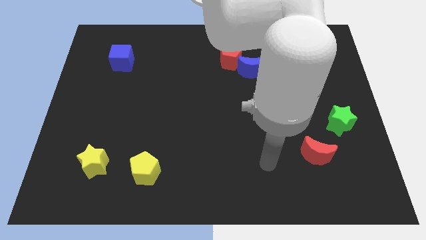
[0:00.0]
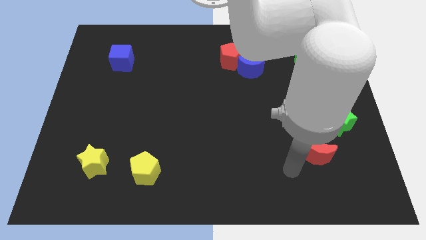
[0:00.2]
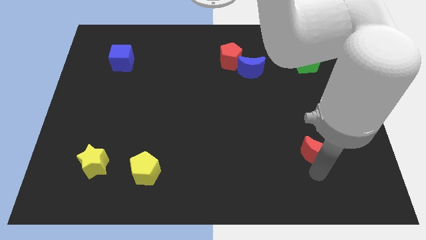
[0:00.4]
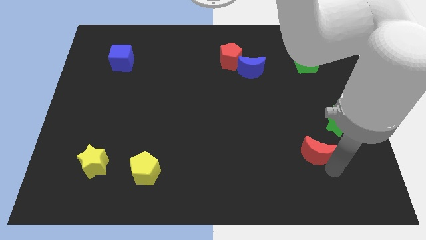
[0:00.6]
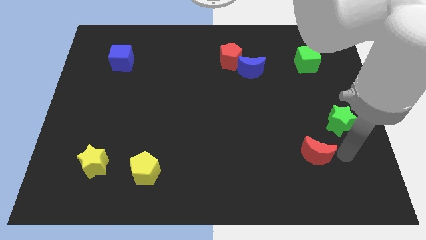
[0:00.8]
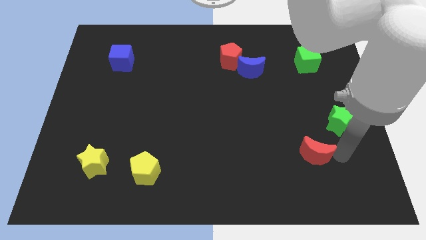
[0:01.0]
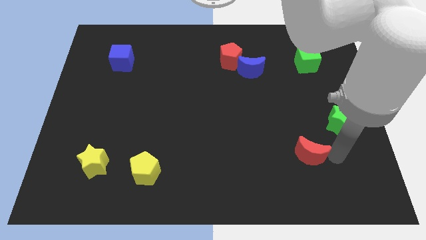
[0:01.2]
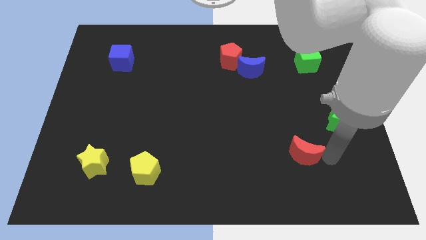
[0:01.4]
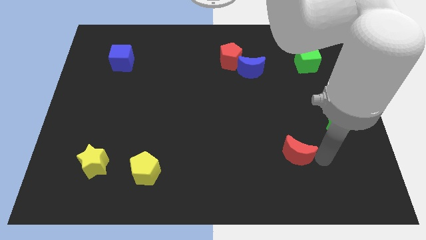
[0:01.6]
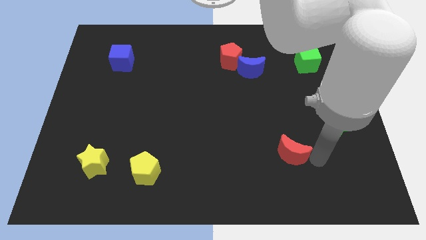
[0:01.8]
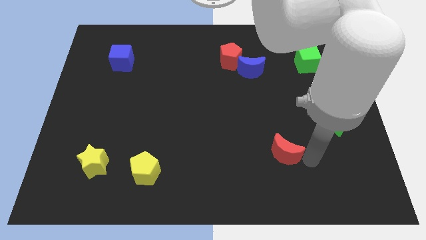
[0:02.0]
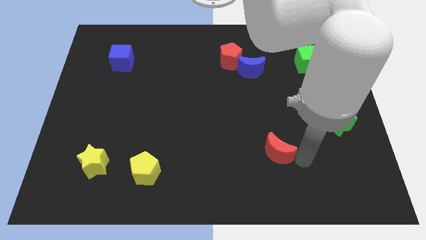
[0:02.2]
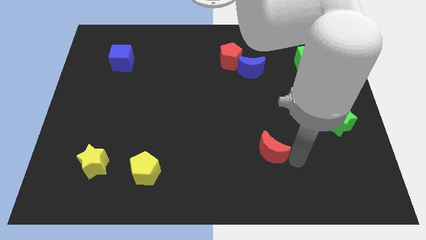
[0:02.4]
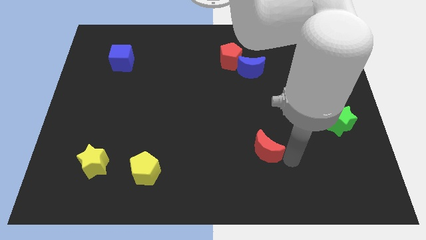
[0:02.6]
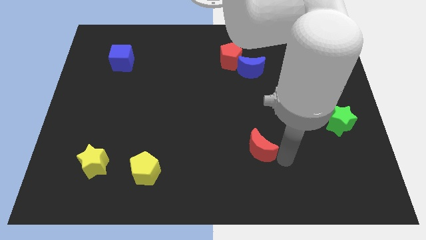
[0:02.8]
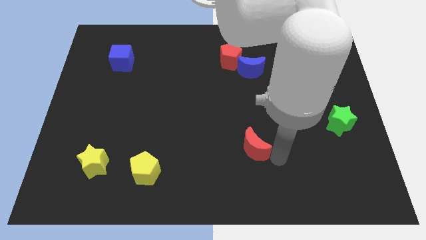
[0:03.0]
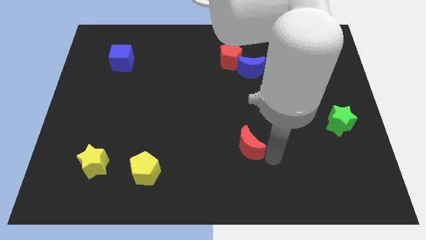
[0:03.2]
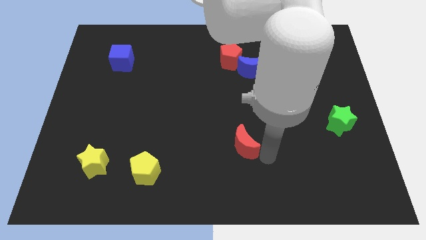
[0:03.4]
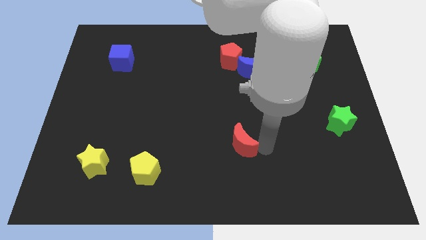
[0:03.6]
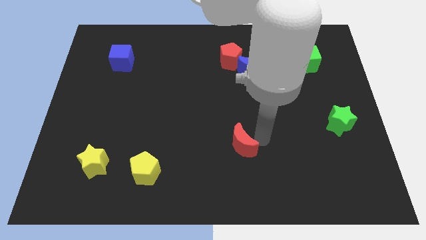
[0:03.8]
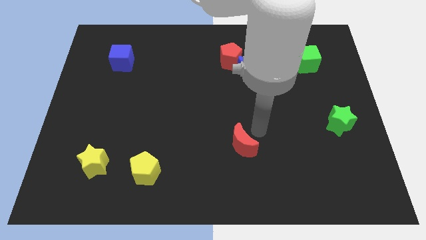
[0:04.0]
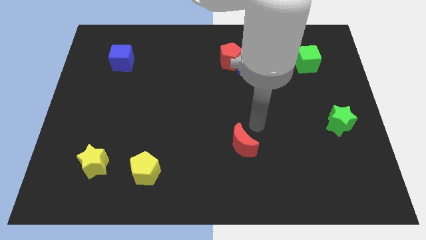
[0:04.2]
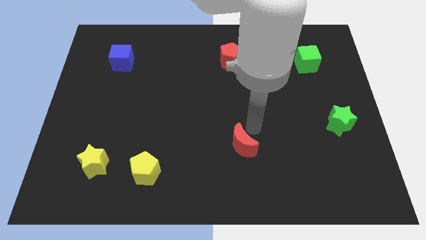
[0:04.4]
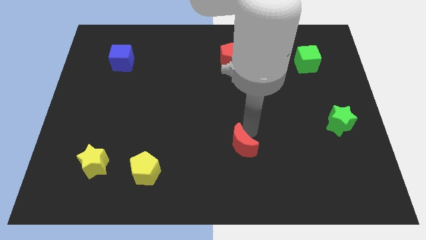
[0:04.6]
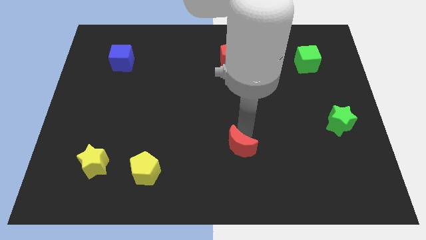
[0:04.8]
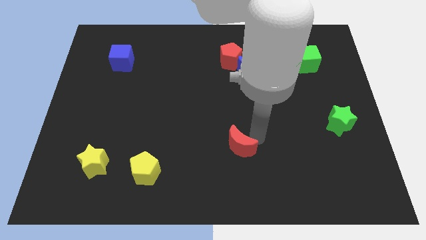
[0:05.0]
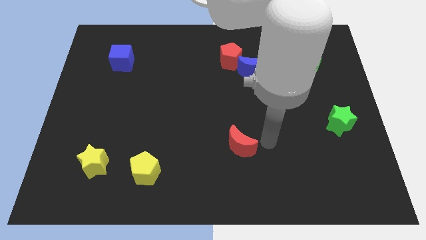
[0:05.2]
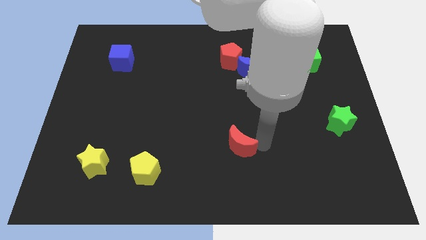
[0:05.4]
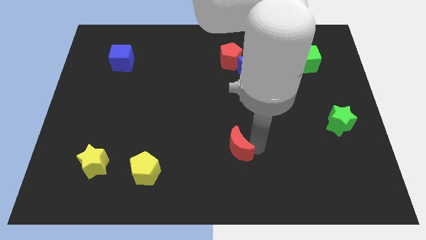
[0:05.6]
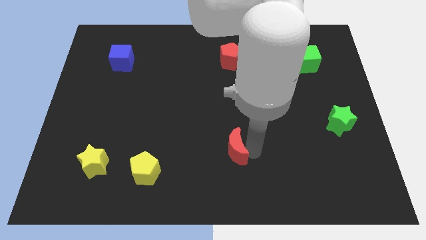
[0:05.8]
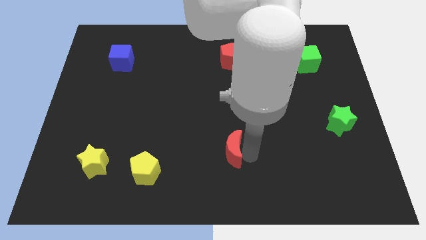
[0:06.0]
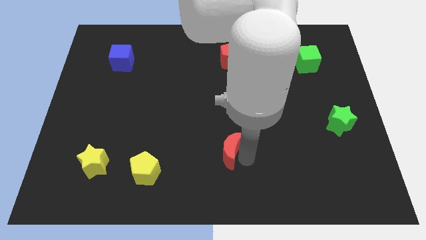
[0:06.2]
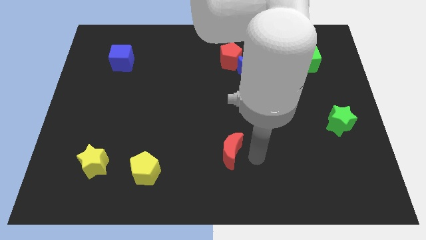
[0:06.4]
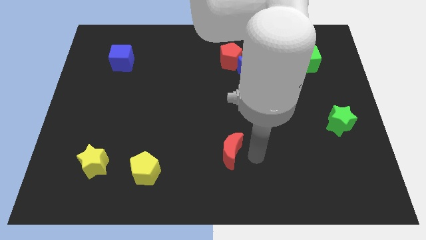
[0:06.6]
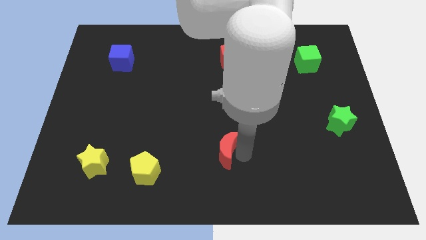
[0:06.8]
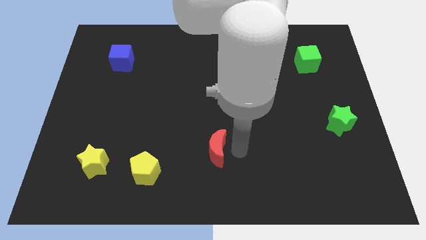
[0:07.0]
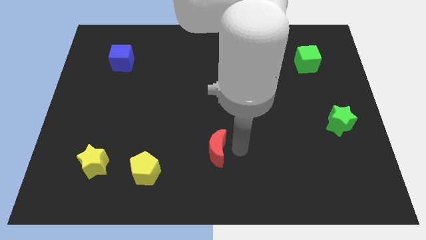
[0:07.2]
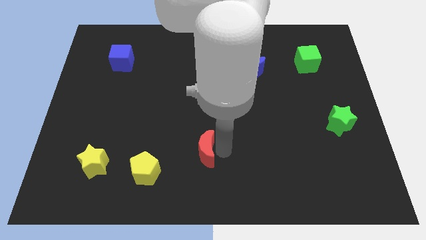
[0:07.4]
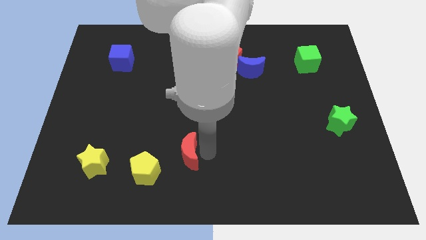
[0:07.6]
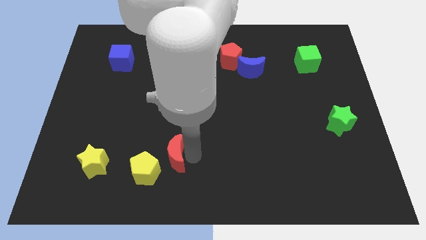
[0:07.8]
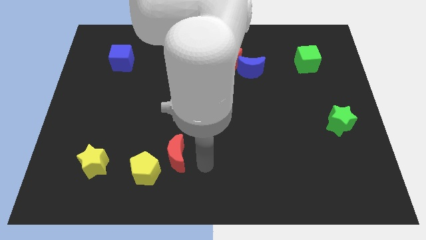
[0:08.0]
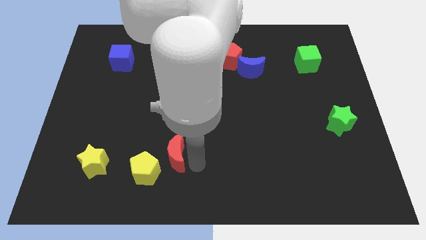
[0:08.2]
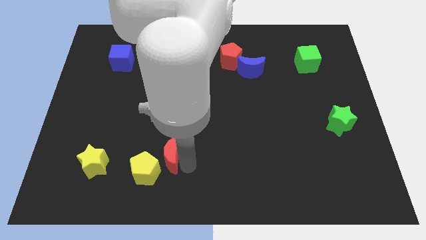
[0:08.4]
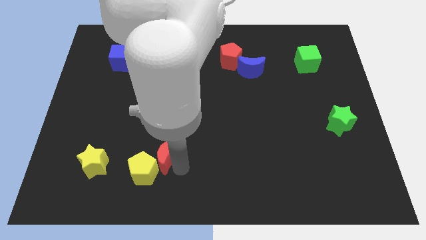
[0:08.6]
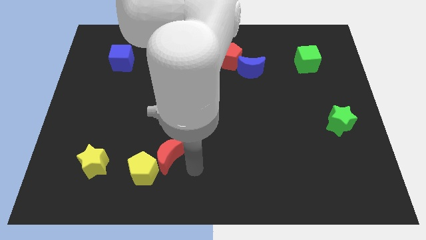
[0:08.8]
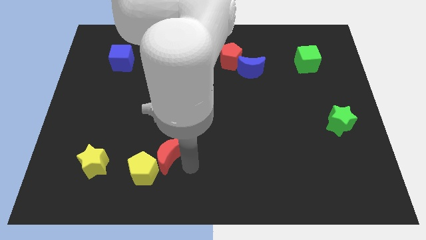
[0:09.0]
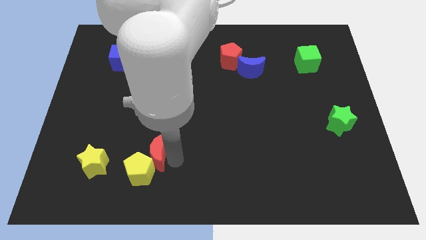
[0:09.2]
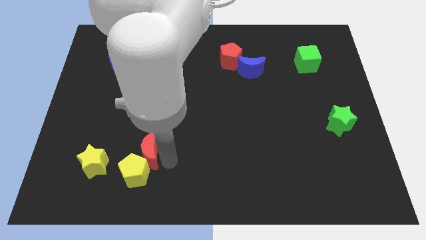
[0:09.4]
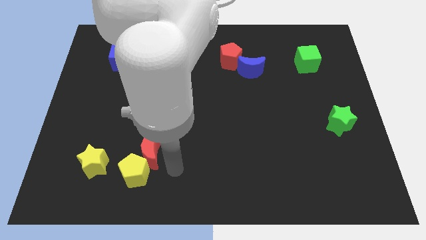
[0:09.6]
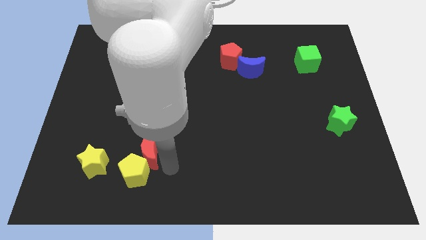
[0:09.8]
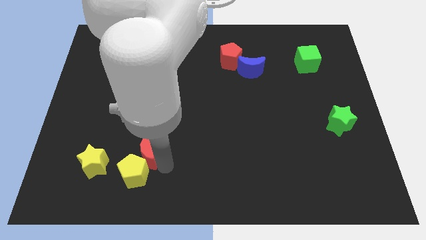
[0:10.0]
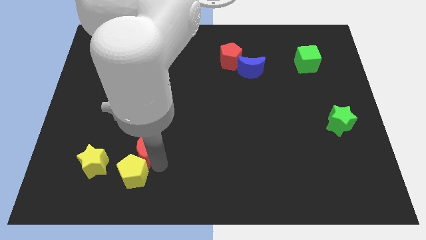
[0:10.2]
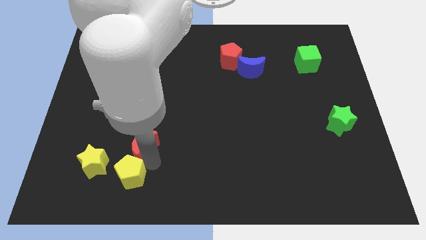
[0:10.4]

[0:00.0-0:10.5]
slide the red moon to the top right side of the yellow star

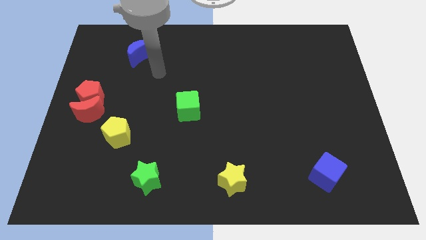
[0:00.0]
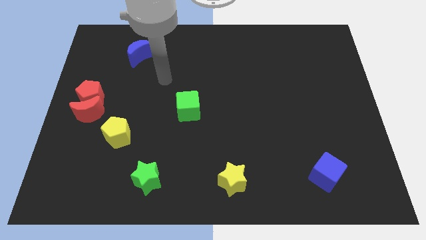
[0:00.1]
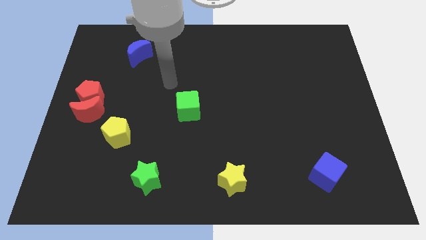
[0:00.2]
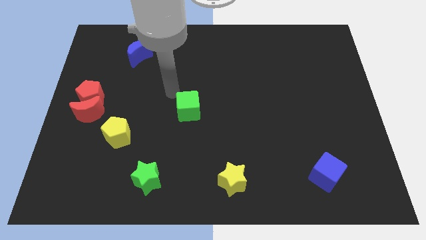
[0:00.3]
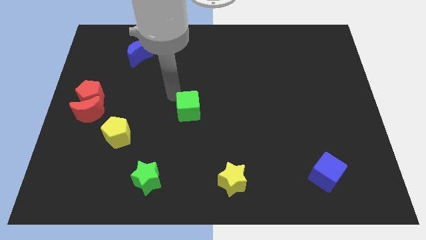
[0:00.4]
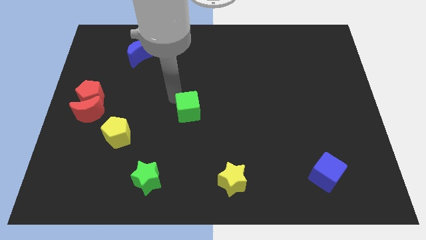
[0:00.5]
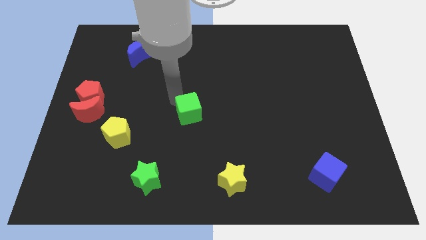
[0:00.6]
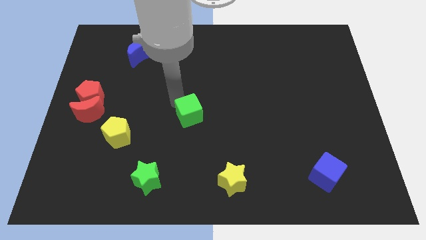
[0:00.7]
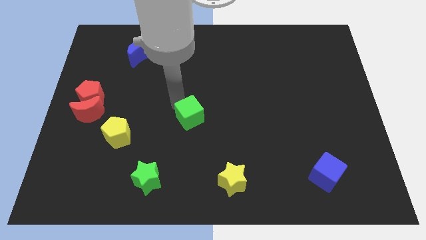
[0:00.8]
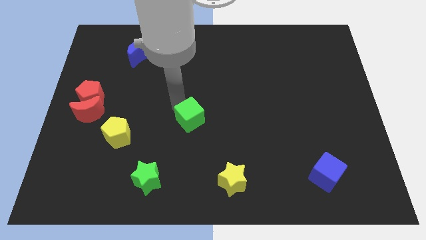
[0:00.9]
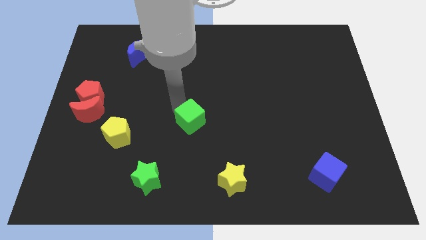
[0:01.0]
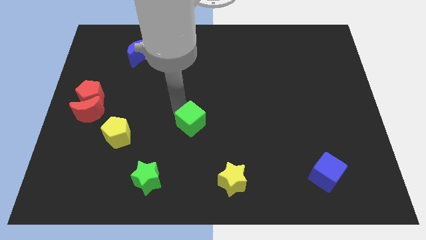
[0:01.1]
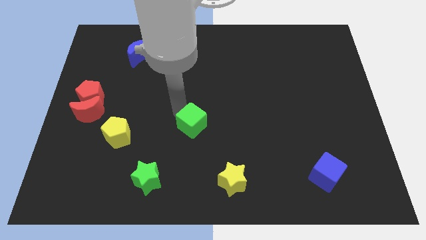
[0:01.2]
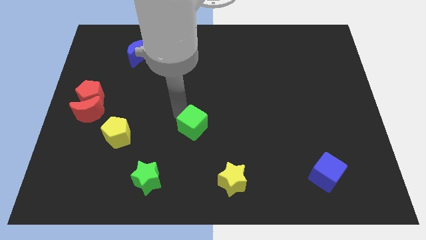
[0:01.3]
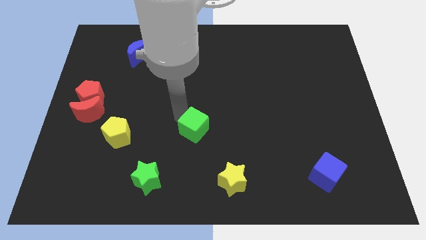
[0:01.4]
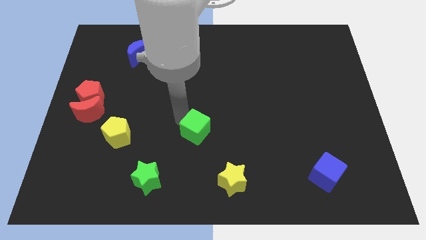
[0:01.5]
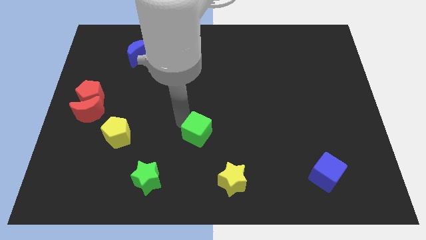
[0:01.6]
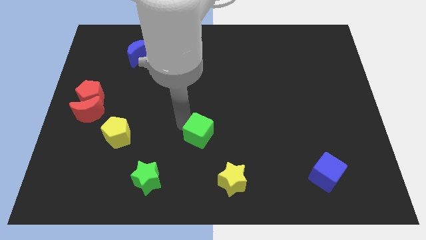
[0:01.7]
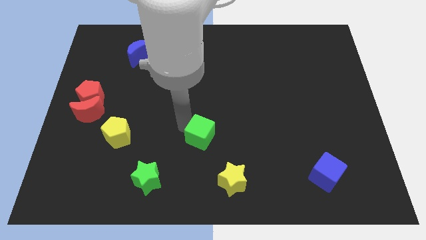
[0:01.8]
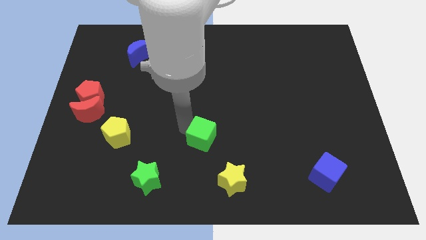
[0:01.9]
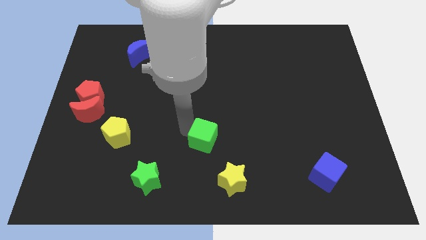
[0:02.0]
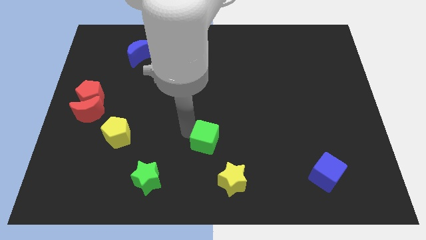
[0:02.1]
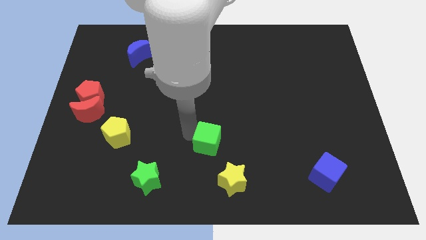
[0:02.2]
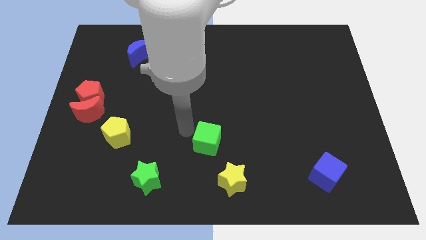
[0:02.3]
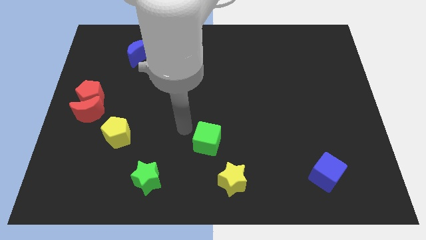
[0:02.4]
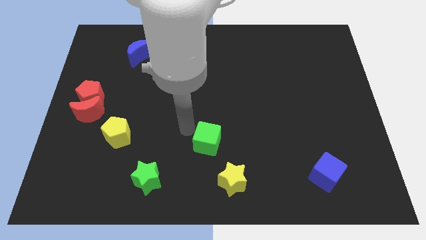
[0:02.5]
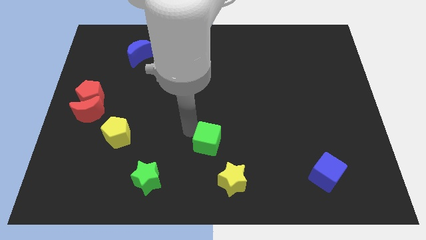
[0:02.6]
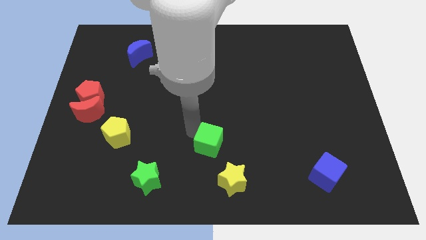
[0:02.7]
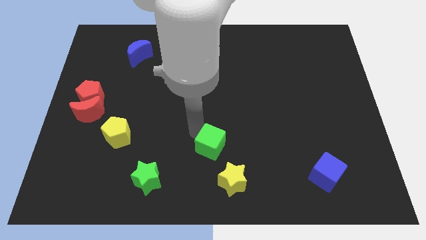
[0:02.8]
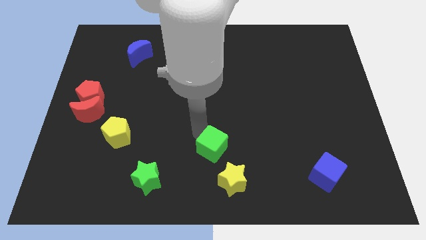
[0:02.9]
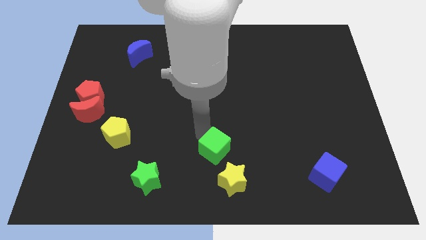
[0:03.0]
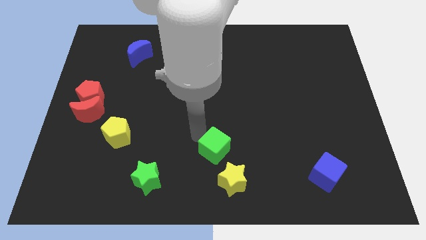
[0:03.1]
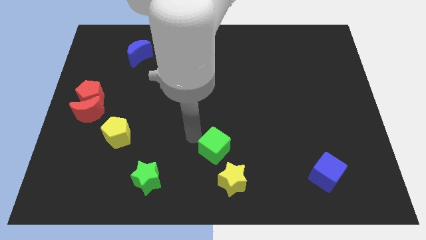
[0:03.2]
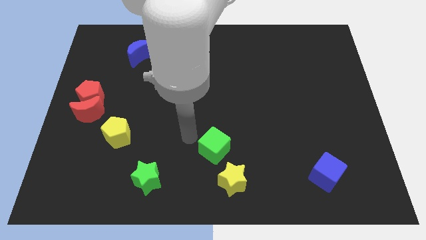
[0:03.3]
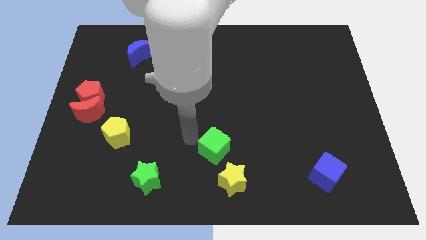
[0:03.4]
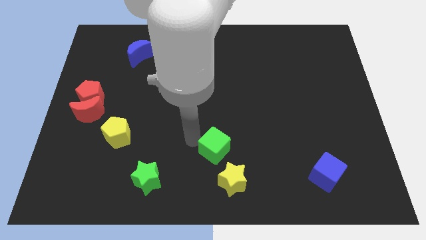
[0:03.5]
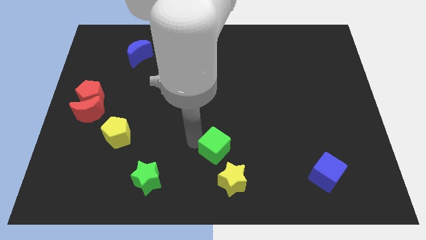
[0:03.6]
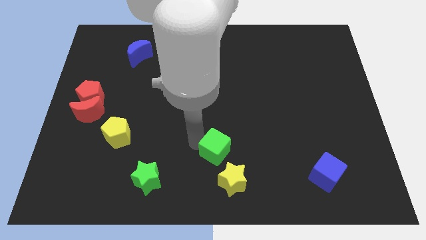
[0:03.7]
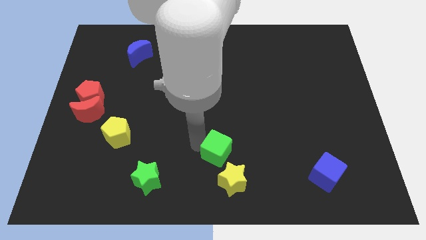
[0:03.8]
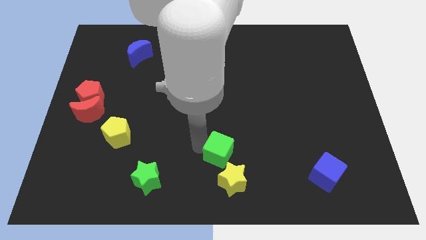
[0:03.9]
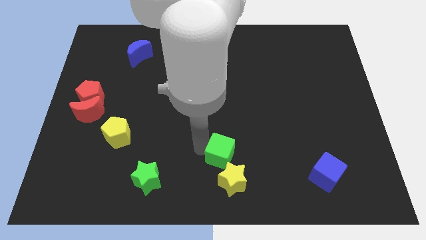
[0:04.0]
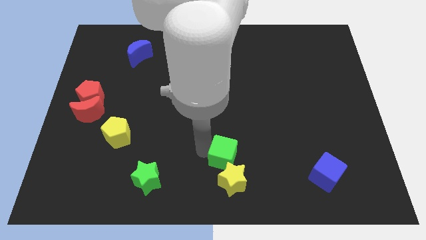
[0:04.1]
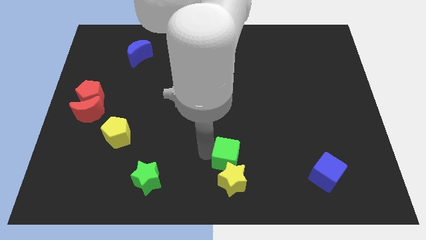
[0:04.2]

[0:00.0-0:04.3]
slide the green cube diagonally up and to the right of the yellow star
